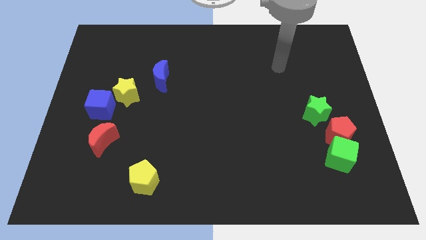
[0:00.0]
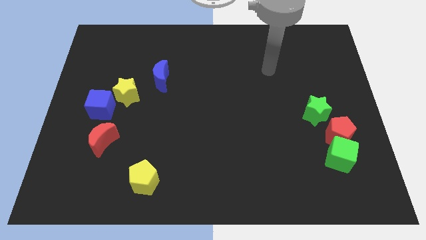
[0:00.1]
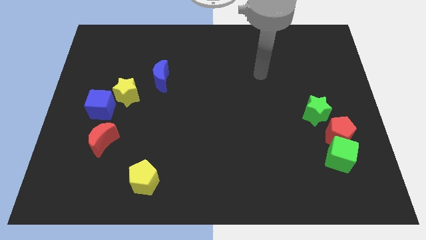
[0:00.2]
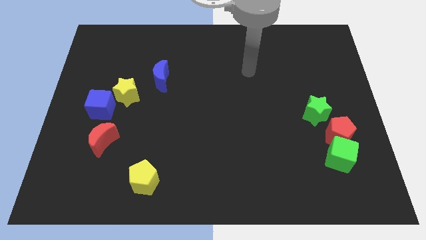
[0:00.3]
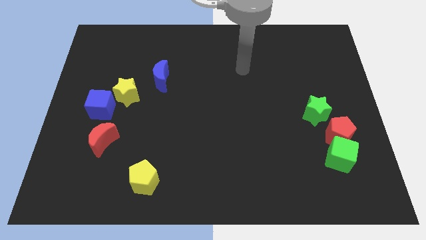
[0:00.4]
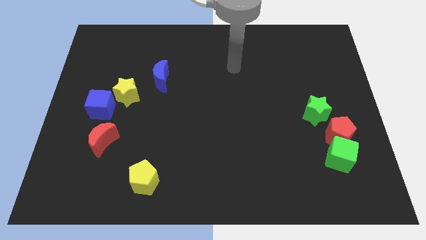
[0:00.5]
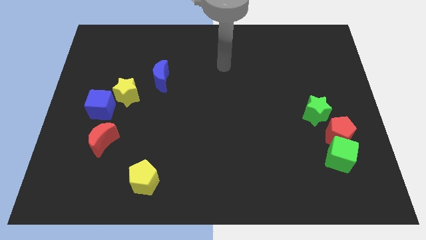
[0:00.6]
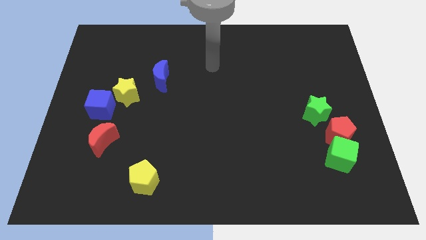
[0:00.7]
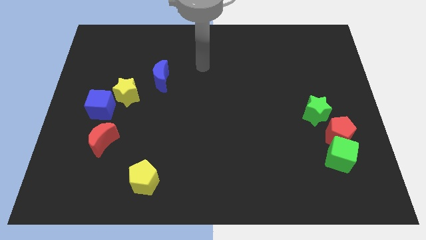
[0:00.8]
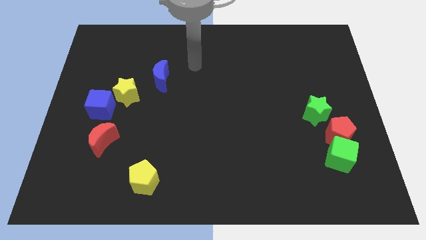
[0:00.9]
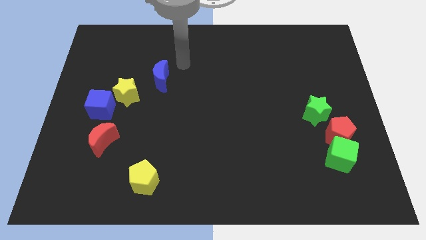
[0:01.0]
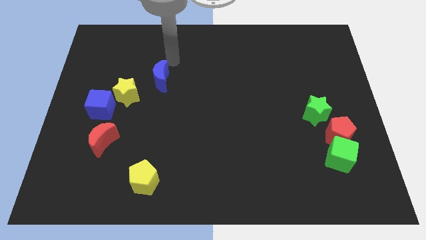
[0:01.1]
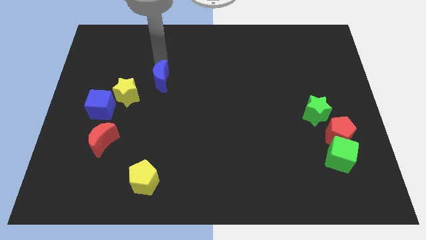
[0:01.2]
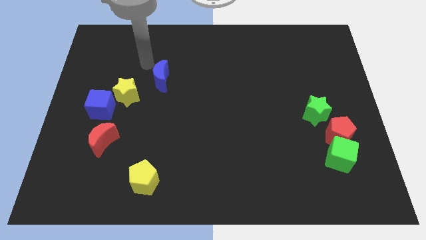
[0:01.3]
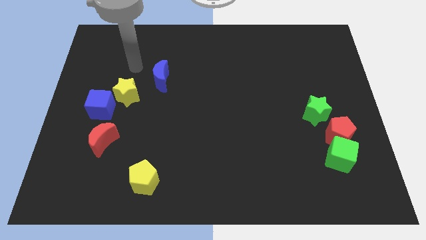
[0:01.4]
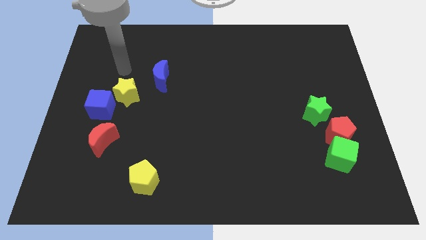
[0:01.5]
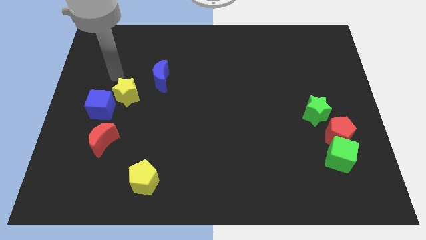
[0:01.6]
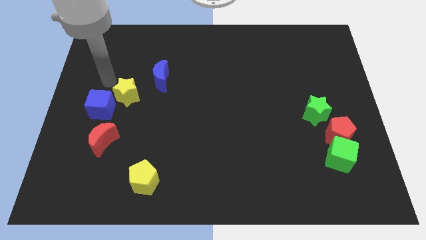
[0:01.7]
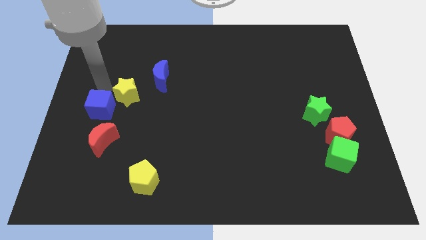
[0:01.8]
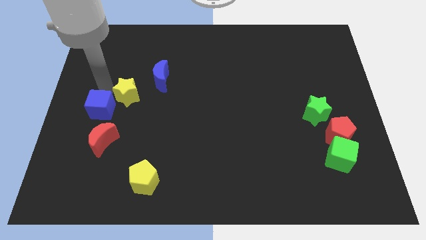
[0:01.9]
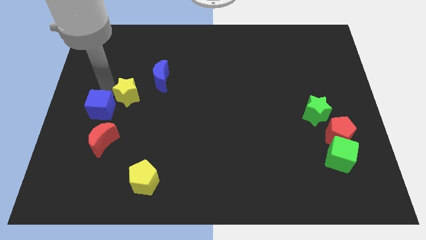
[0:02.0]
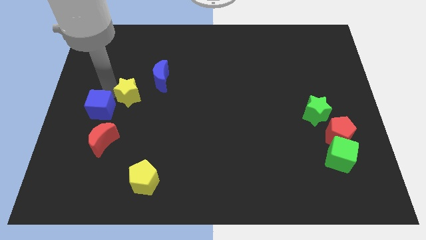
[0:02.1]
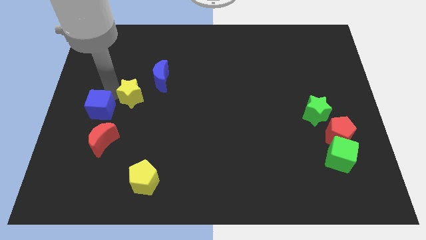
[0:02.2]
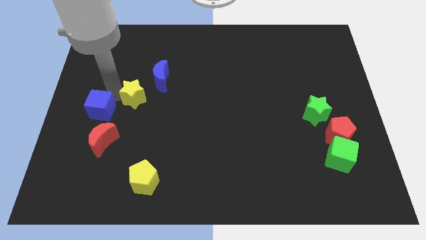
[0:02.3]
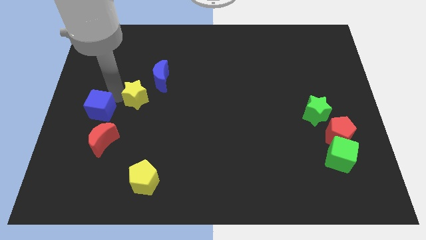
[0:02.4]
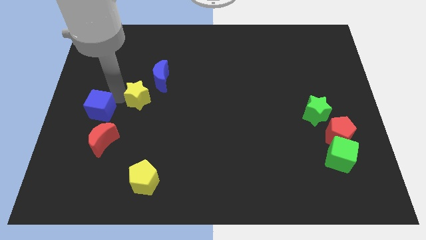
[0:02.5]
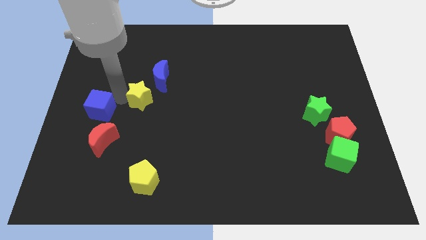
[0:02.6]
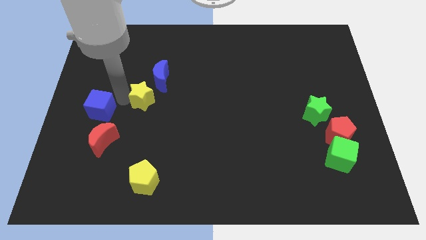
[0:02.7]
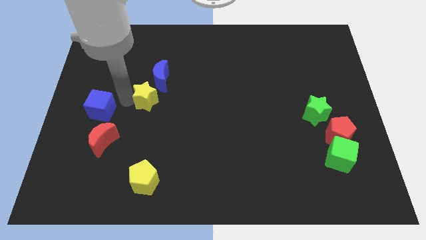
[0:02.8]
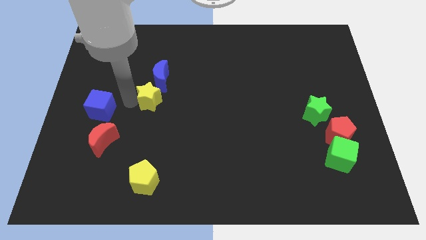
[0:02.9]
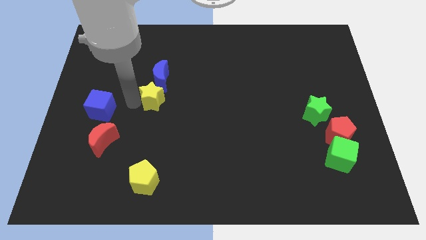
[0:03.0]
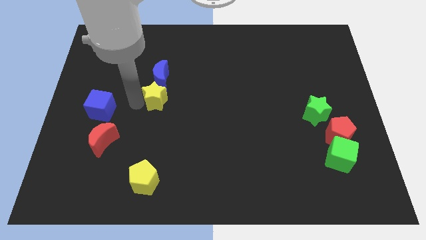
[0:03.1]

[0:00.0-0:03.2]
slide the yellow star right a little bit

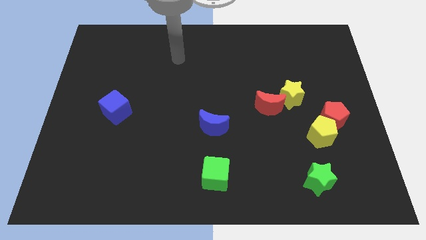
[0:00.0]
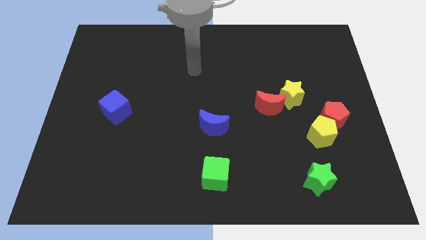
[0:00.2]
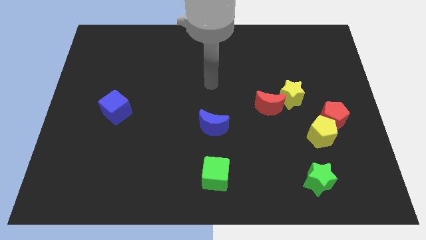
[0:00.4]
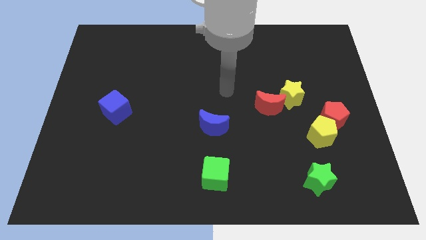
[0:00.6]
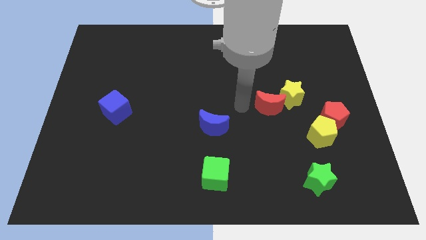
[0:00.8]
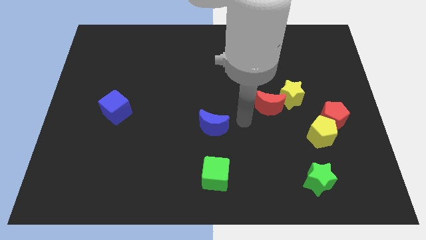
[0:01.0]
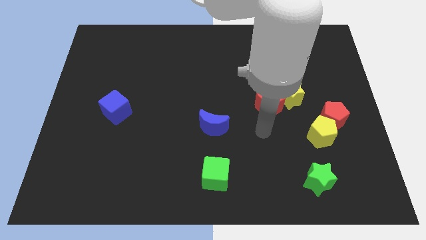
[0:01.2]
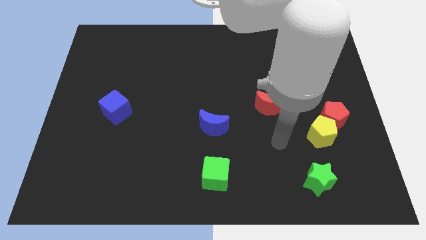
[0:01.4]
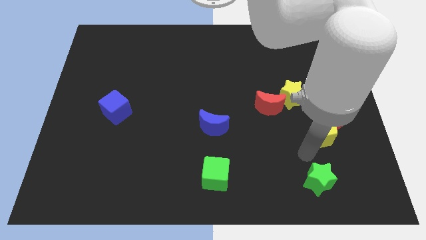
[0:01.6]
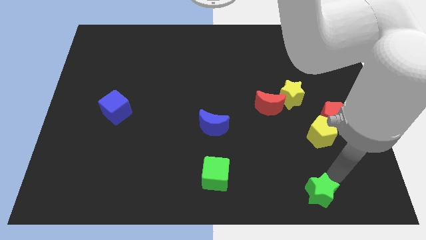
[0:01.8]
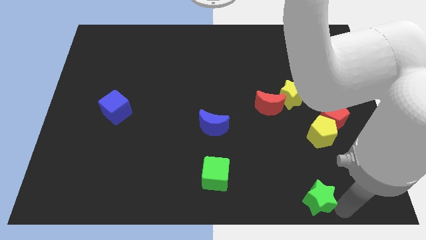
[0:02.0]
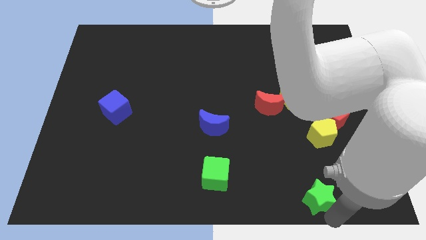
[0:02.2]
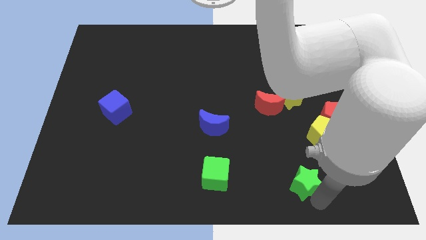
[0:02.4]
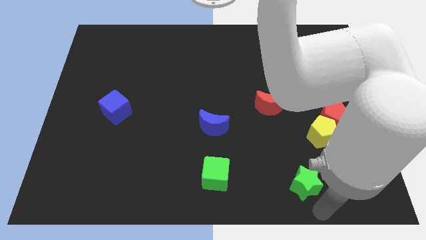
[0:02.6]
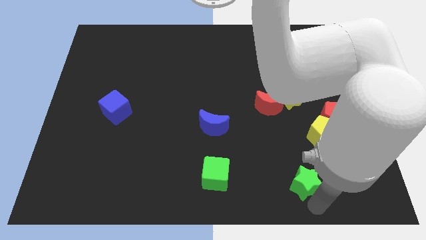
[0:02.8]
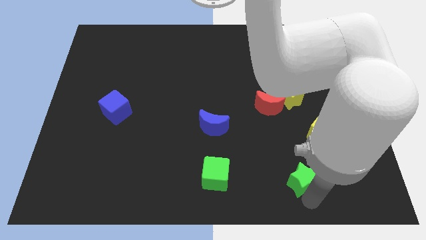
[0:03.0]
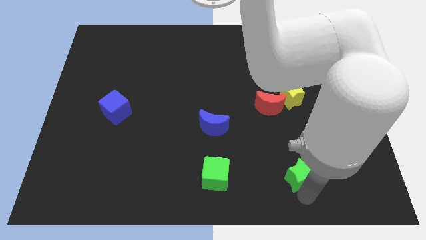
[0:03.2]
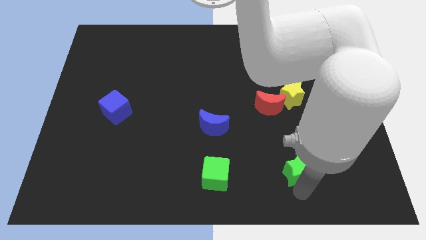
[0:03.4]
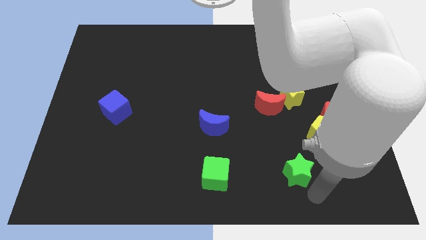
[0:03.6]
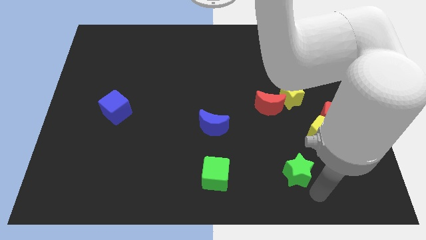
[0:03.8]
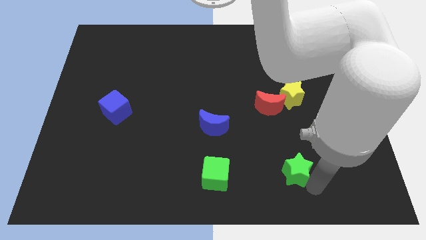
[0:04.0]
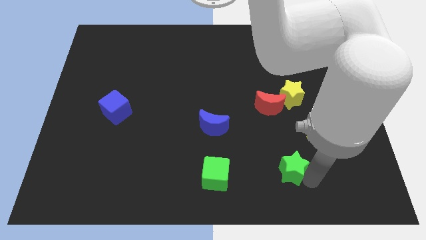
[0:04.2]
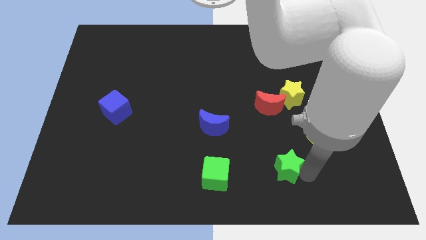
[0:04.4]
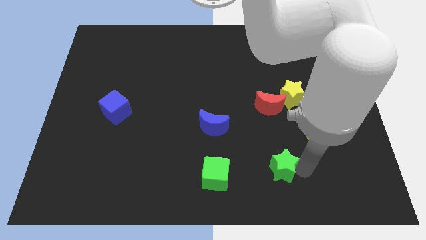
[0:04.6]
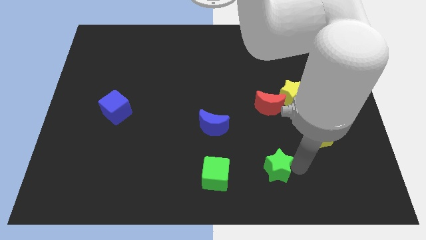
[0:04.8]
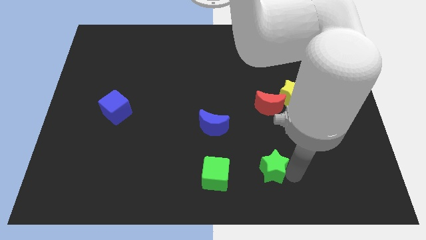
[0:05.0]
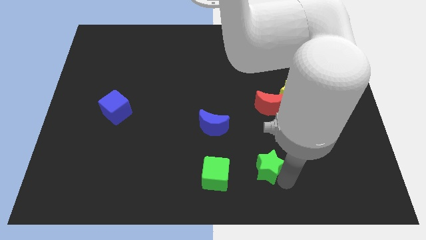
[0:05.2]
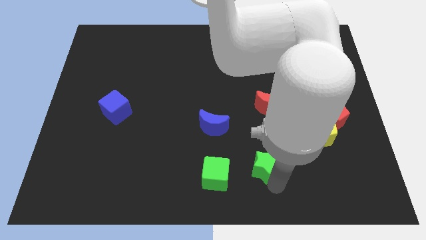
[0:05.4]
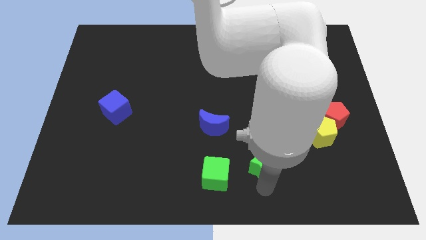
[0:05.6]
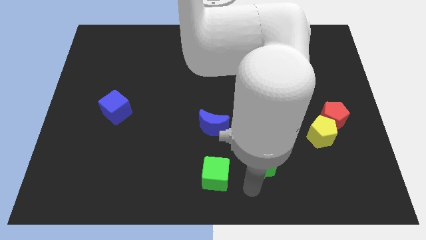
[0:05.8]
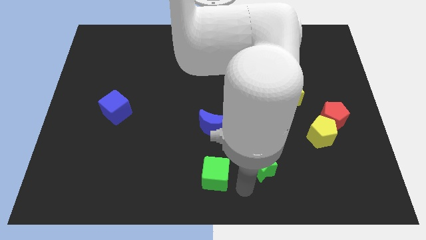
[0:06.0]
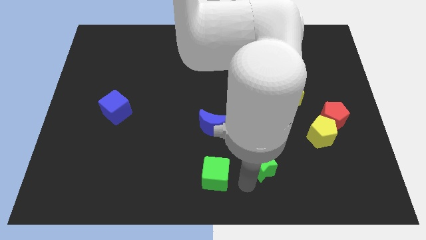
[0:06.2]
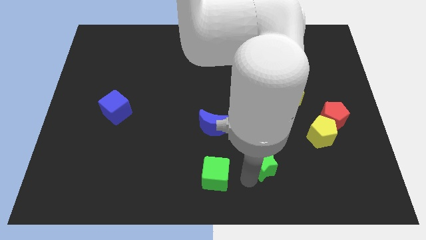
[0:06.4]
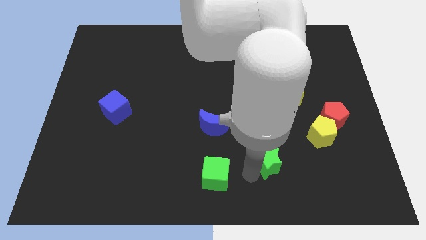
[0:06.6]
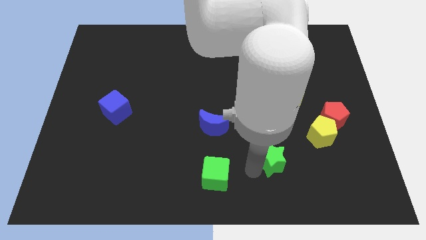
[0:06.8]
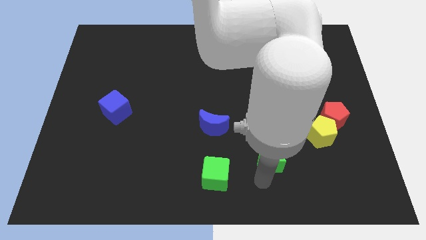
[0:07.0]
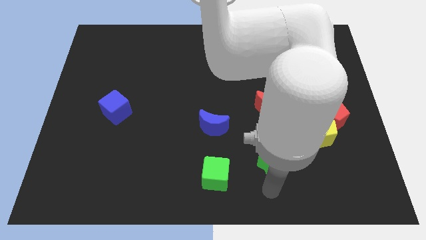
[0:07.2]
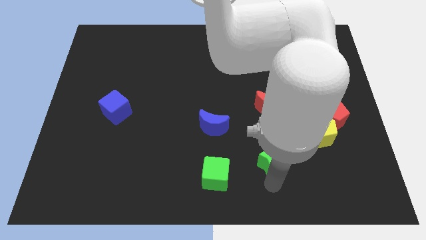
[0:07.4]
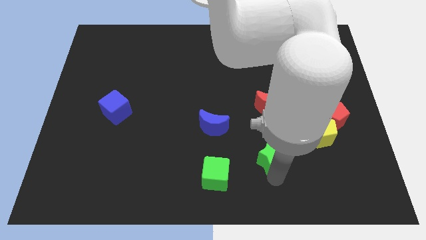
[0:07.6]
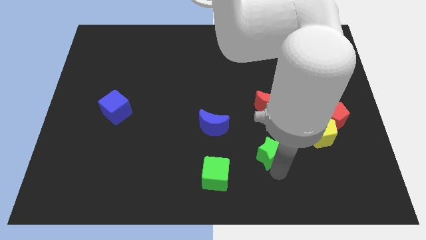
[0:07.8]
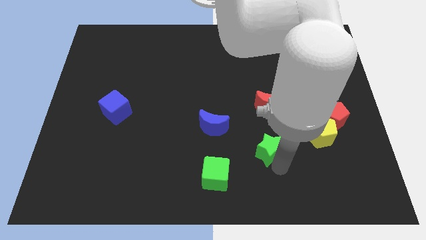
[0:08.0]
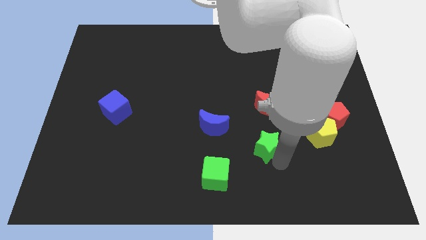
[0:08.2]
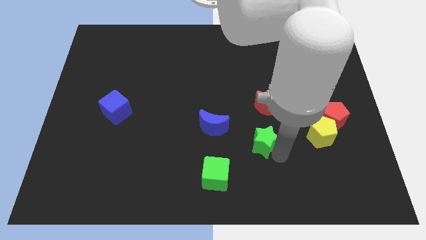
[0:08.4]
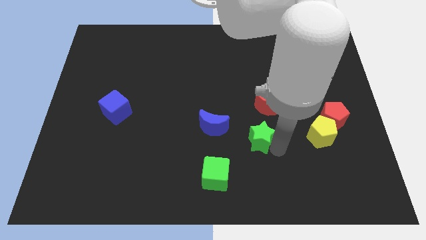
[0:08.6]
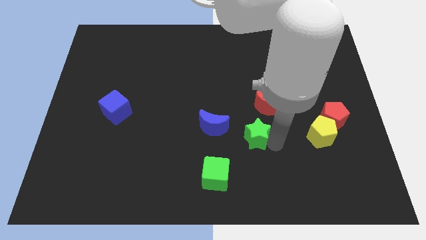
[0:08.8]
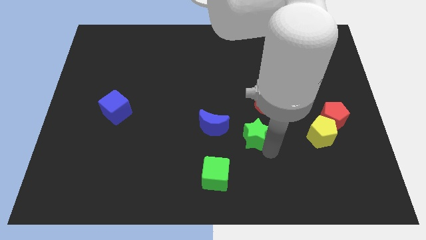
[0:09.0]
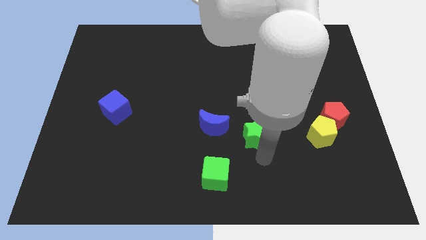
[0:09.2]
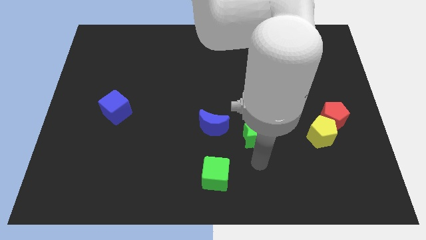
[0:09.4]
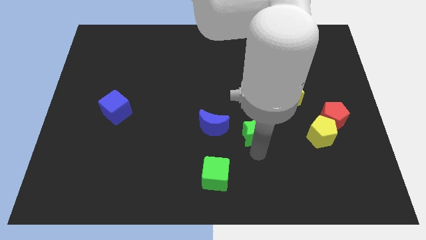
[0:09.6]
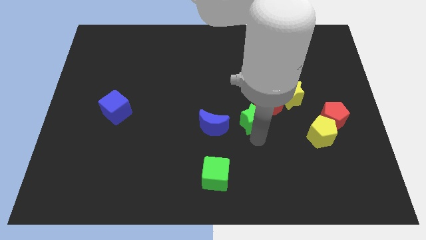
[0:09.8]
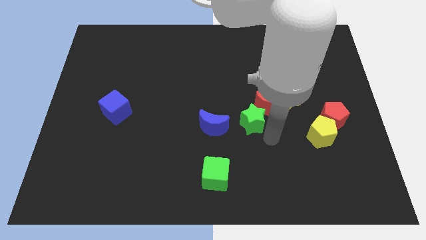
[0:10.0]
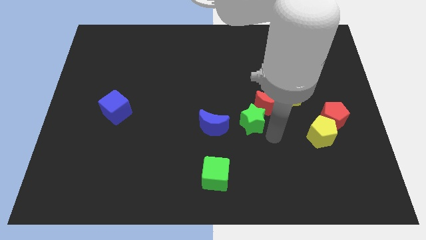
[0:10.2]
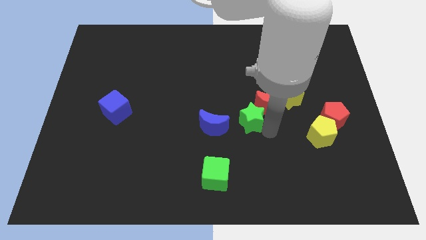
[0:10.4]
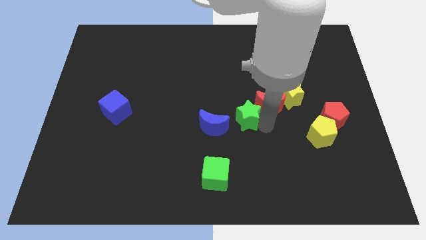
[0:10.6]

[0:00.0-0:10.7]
push the green star up and to the left diagonally
